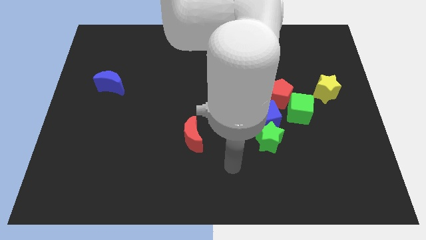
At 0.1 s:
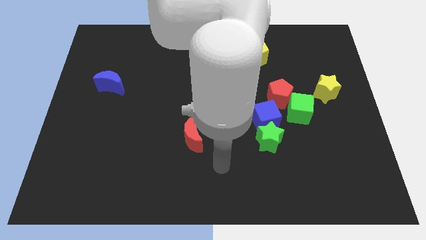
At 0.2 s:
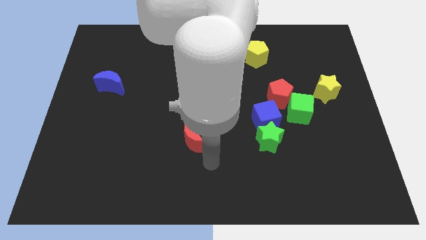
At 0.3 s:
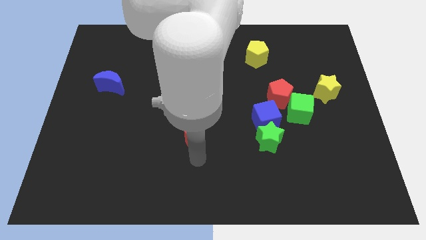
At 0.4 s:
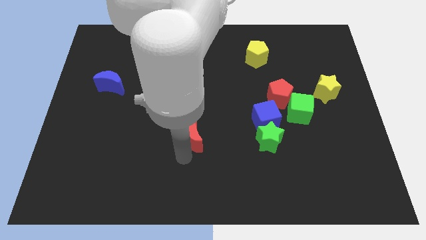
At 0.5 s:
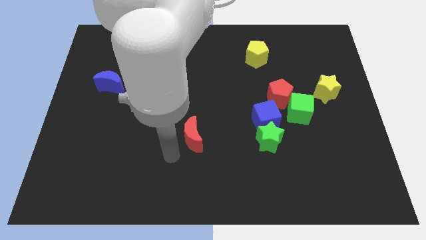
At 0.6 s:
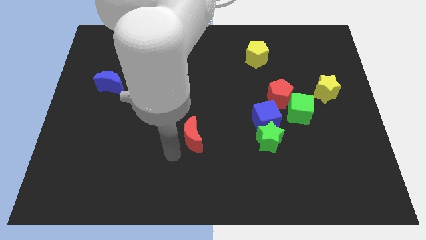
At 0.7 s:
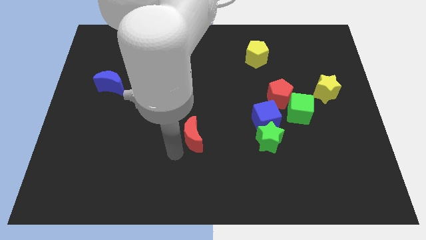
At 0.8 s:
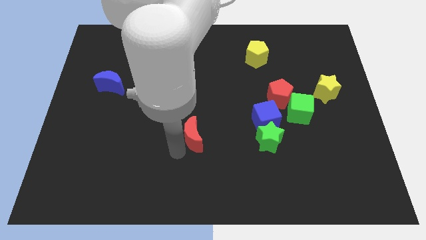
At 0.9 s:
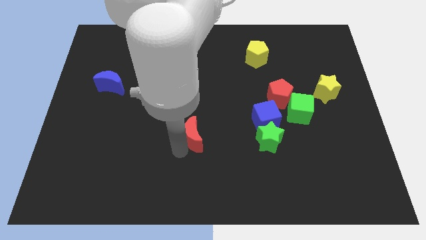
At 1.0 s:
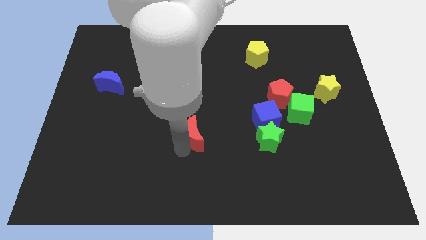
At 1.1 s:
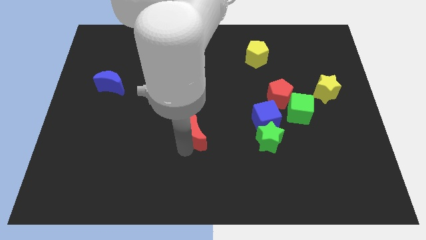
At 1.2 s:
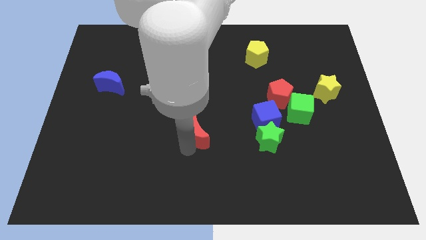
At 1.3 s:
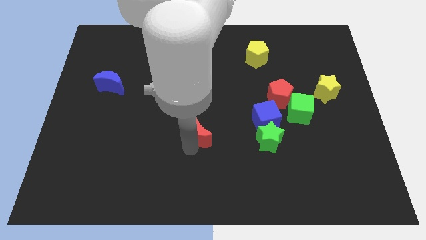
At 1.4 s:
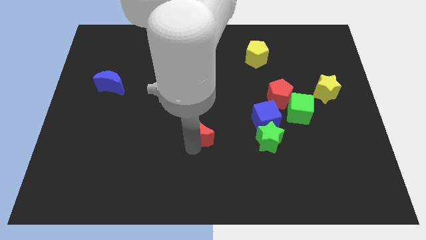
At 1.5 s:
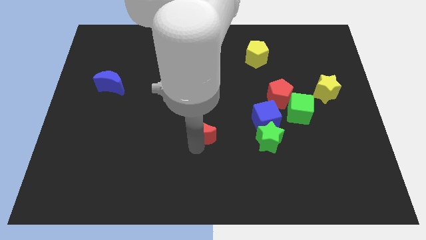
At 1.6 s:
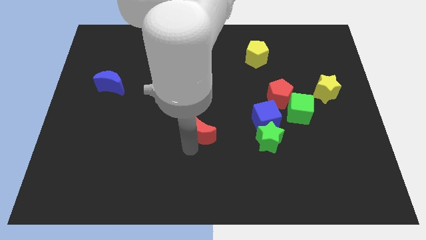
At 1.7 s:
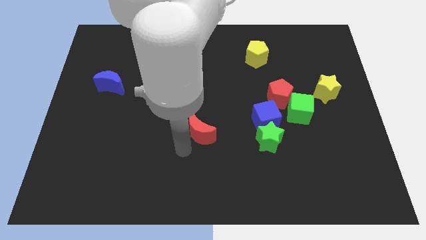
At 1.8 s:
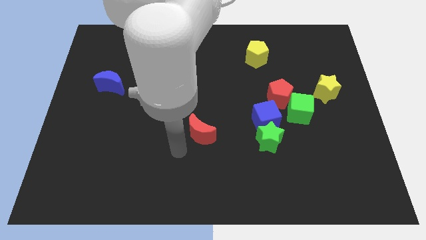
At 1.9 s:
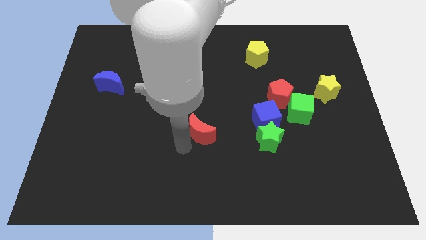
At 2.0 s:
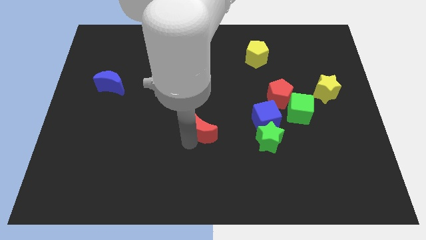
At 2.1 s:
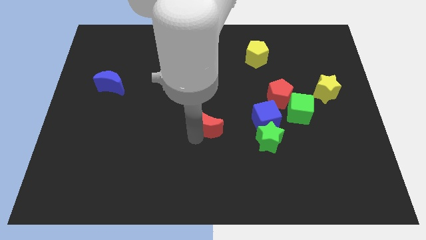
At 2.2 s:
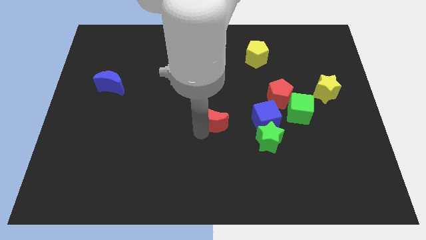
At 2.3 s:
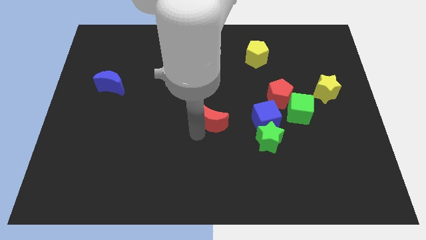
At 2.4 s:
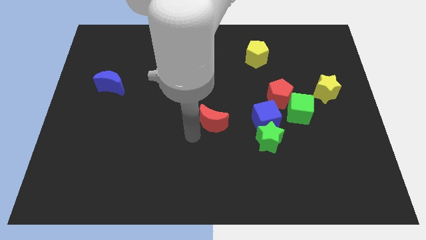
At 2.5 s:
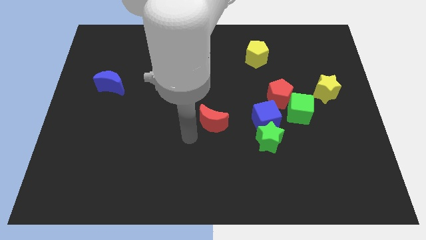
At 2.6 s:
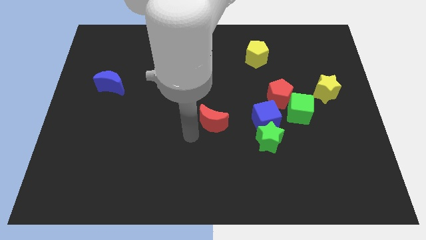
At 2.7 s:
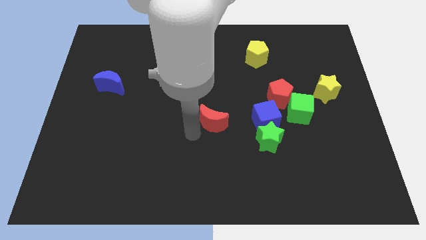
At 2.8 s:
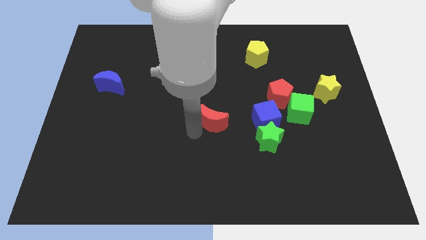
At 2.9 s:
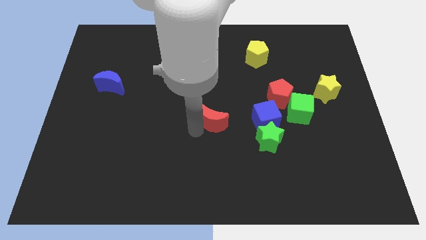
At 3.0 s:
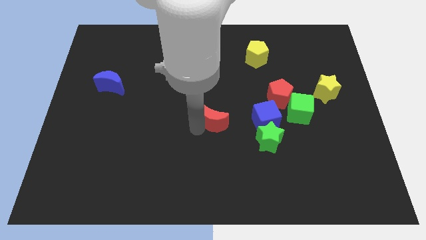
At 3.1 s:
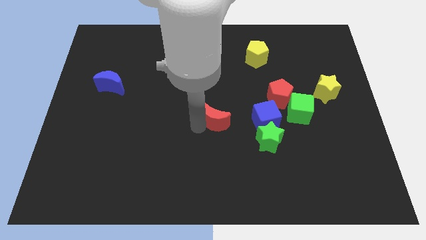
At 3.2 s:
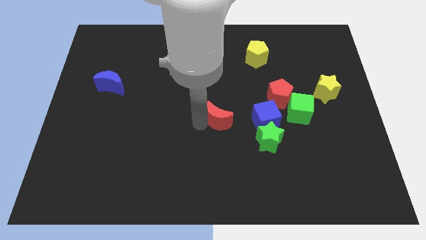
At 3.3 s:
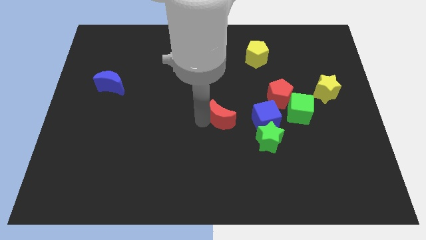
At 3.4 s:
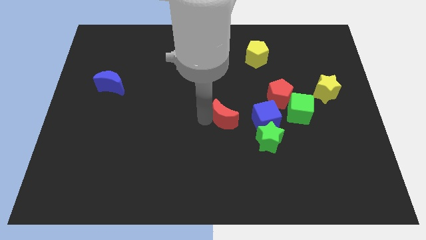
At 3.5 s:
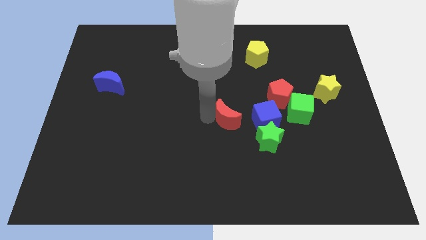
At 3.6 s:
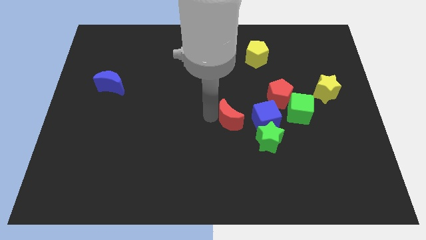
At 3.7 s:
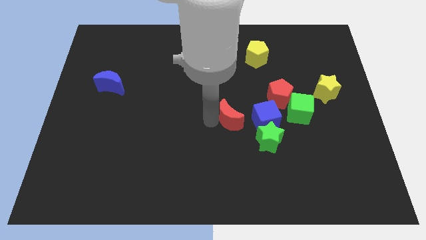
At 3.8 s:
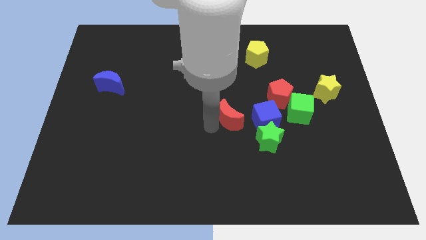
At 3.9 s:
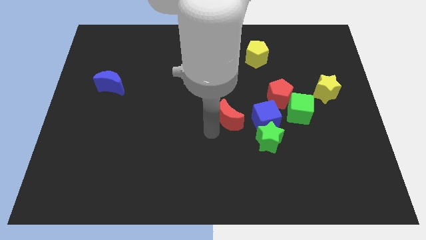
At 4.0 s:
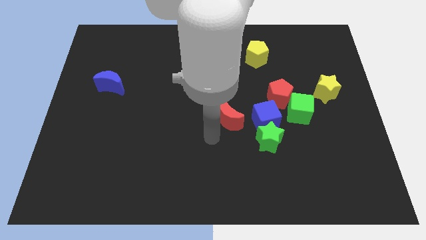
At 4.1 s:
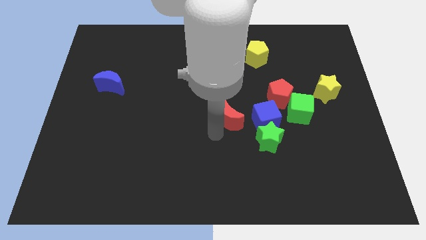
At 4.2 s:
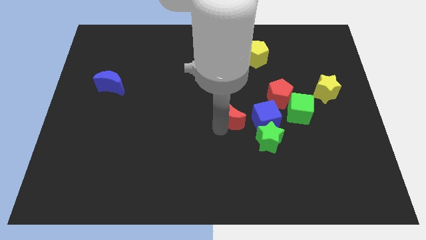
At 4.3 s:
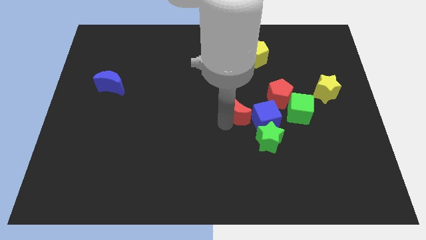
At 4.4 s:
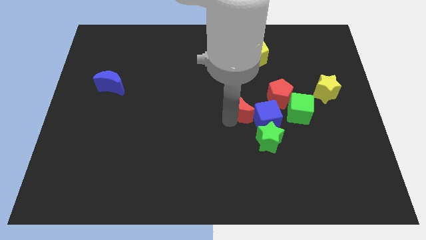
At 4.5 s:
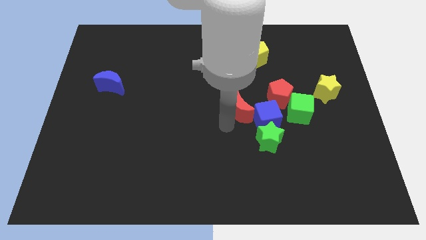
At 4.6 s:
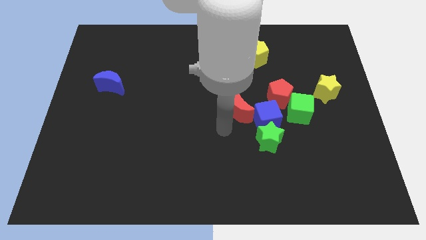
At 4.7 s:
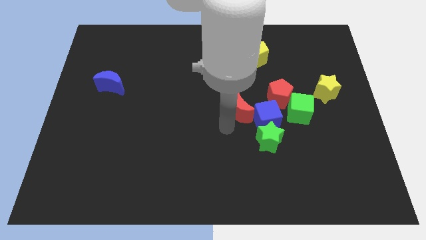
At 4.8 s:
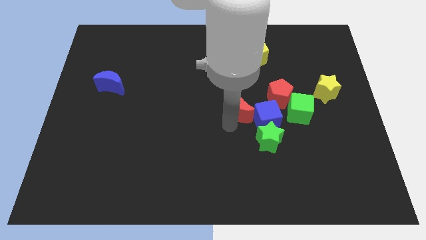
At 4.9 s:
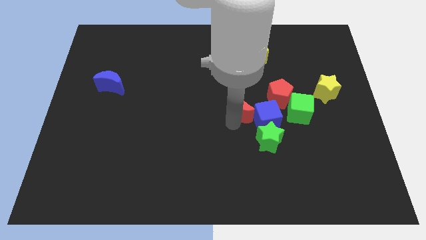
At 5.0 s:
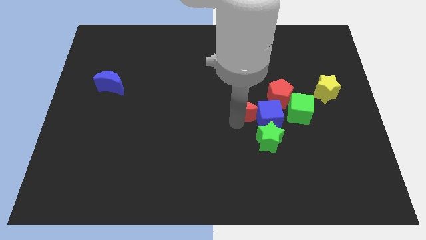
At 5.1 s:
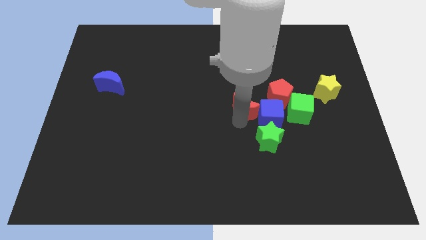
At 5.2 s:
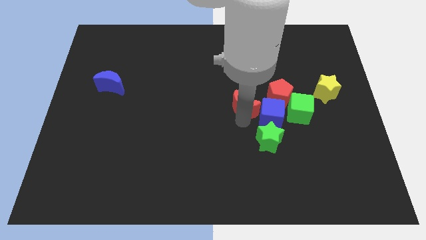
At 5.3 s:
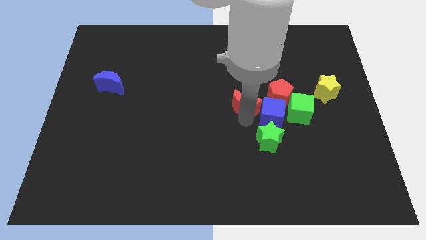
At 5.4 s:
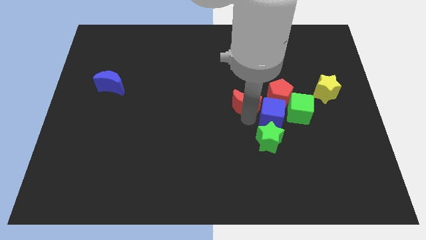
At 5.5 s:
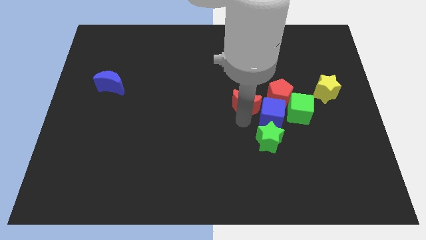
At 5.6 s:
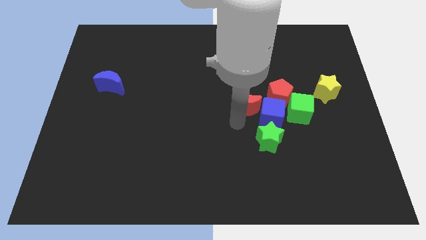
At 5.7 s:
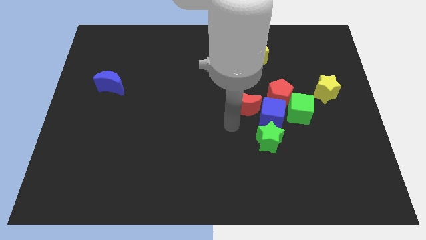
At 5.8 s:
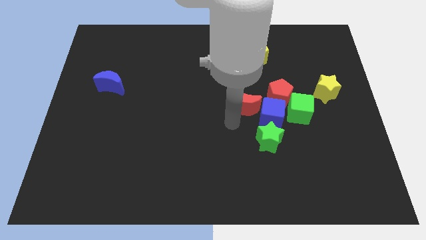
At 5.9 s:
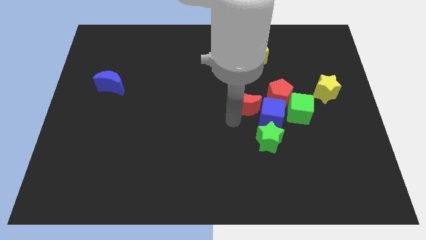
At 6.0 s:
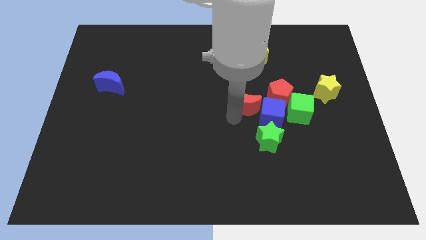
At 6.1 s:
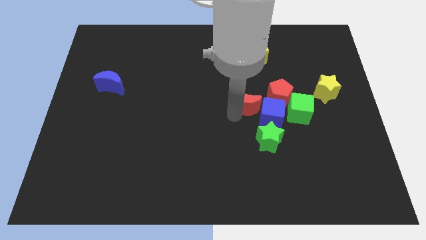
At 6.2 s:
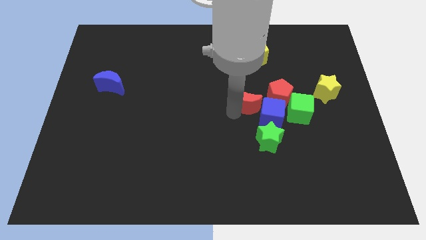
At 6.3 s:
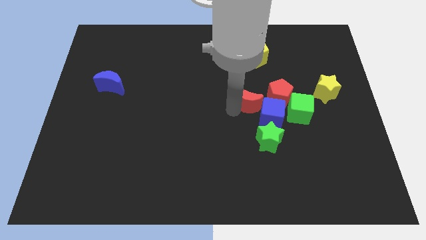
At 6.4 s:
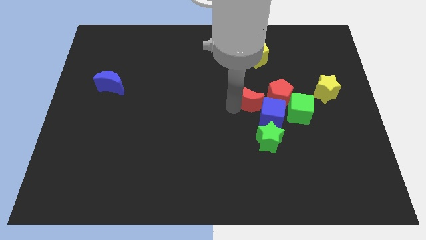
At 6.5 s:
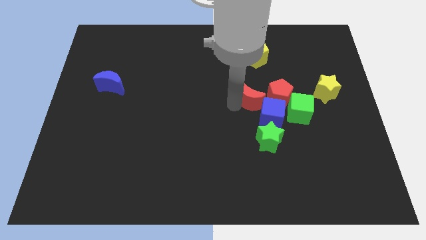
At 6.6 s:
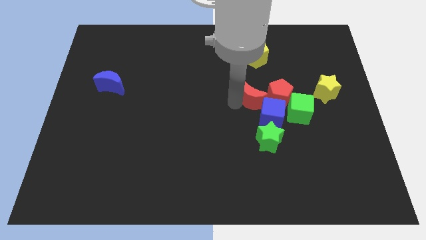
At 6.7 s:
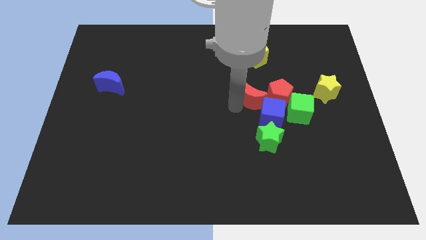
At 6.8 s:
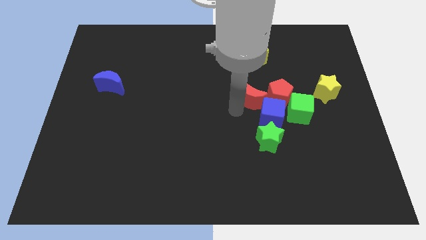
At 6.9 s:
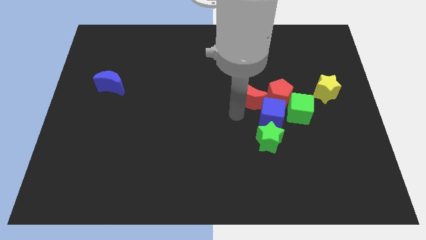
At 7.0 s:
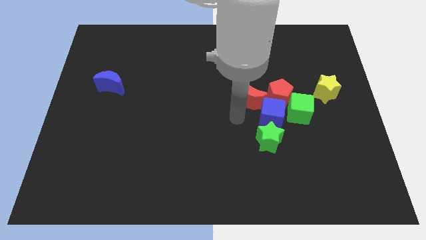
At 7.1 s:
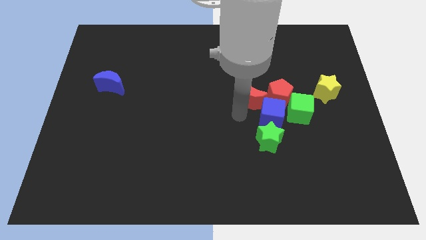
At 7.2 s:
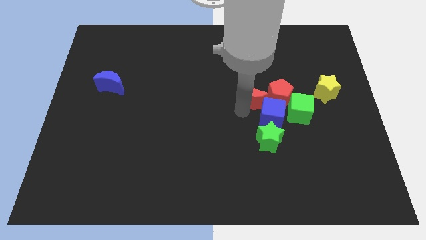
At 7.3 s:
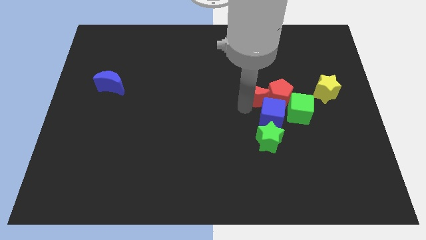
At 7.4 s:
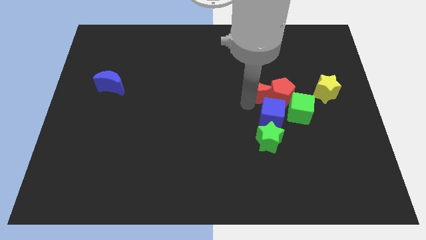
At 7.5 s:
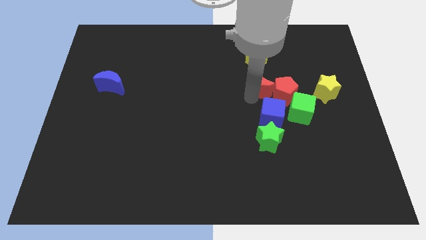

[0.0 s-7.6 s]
slide the red moon upwards and to the right

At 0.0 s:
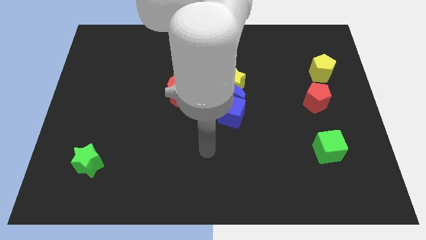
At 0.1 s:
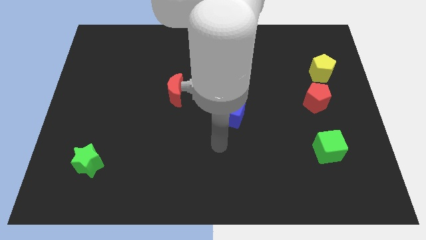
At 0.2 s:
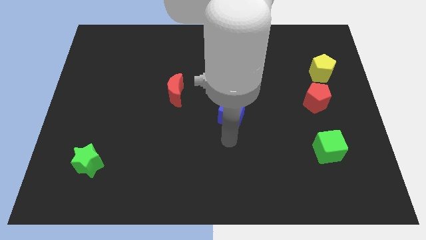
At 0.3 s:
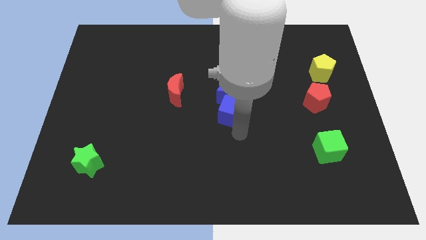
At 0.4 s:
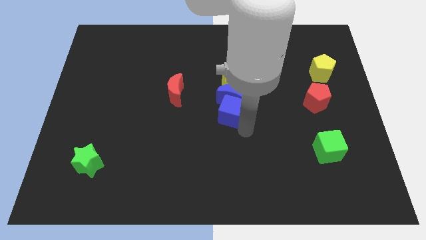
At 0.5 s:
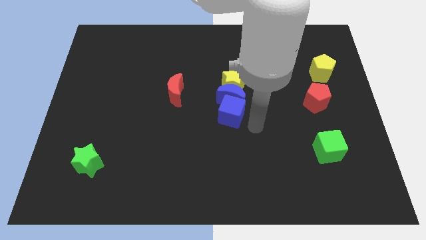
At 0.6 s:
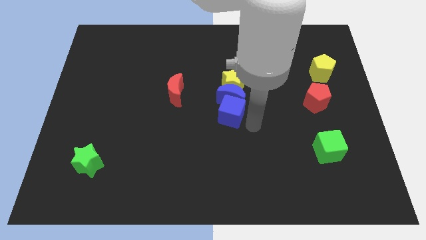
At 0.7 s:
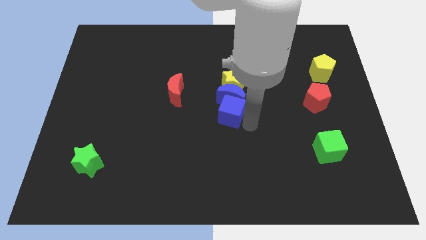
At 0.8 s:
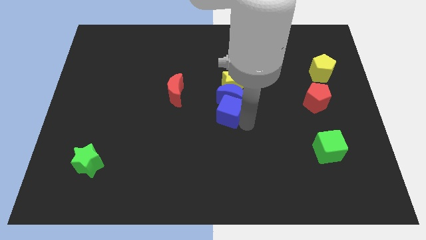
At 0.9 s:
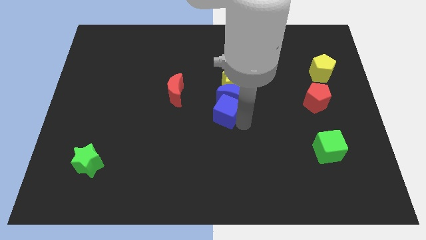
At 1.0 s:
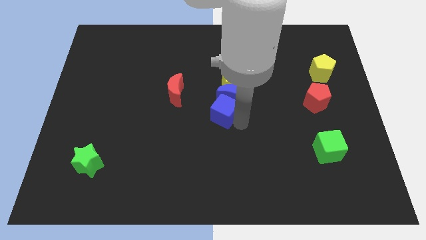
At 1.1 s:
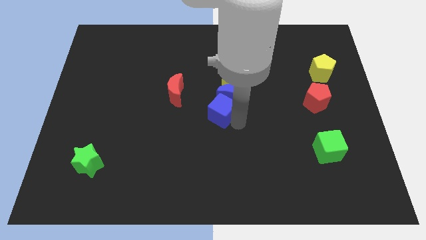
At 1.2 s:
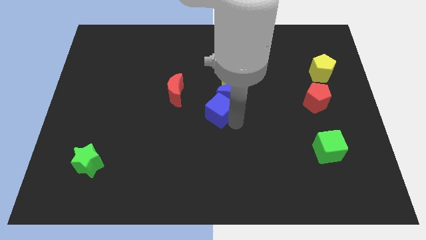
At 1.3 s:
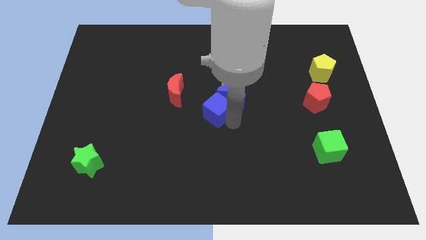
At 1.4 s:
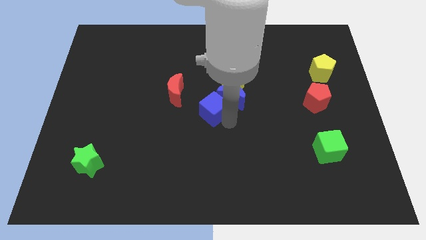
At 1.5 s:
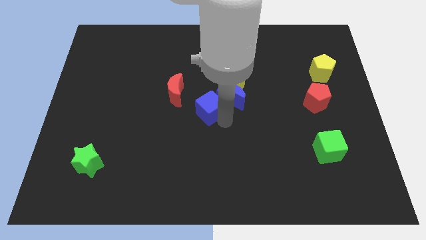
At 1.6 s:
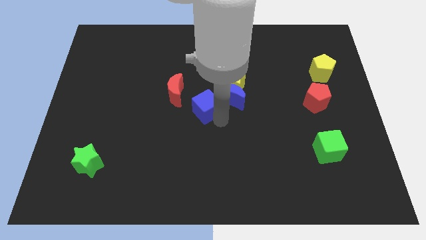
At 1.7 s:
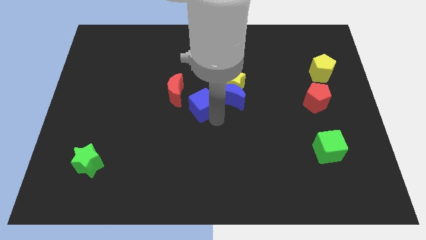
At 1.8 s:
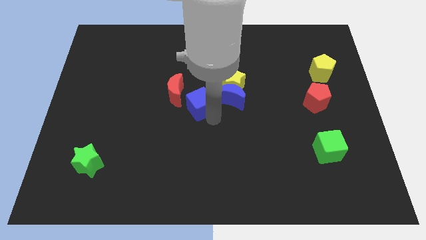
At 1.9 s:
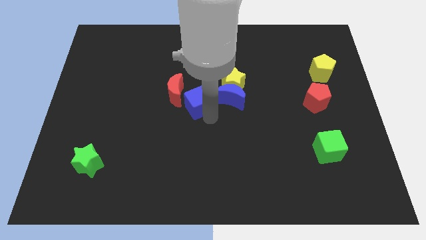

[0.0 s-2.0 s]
slide the blue cube upwards and to the left somewhat
